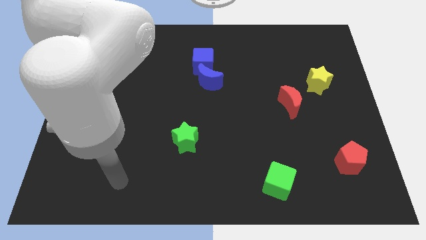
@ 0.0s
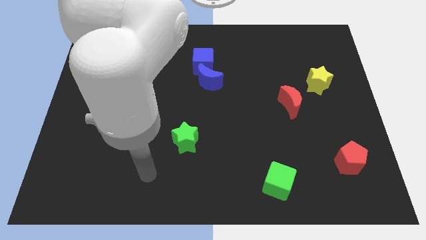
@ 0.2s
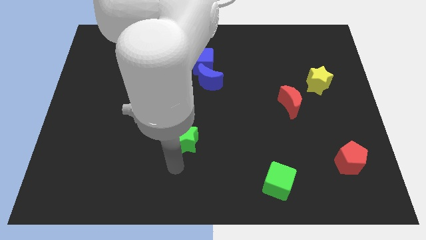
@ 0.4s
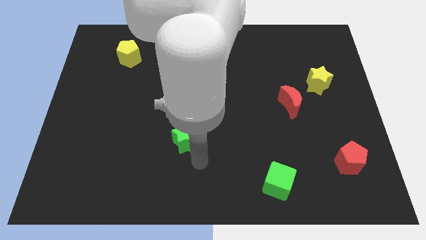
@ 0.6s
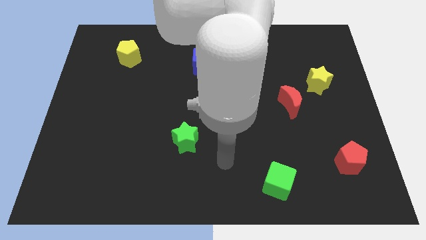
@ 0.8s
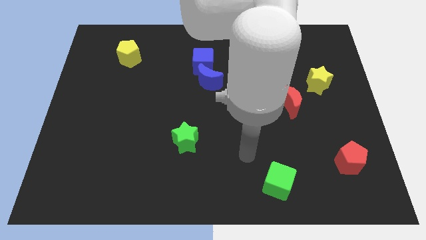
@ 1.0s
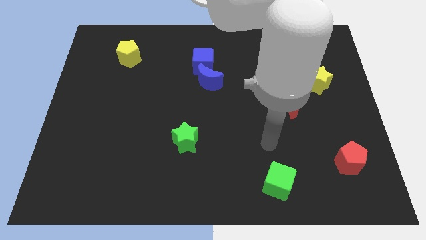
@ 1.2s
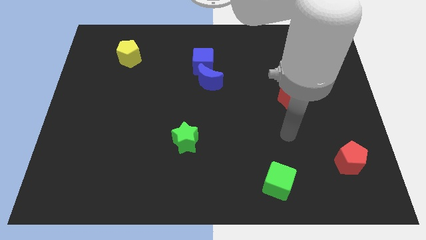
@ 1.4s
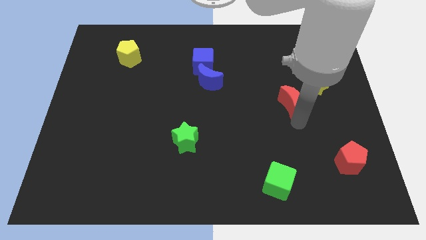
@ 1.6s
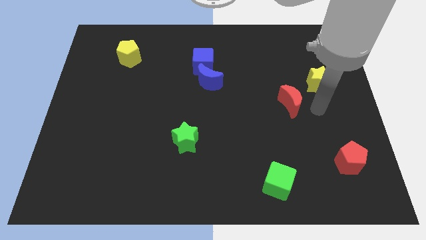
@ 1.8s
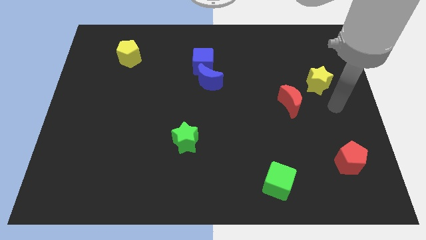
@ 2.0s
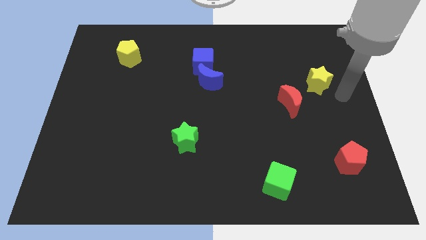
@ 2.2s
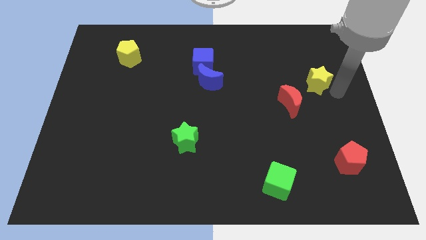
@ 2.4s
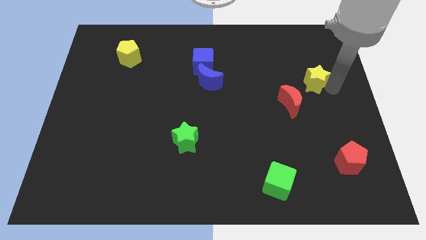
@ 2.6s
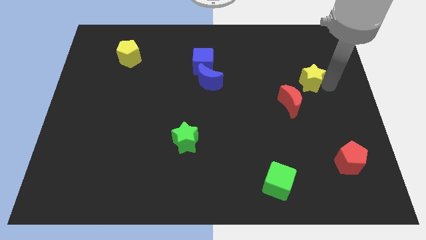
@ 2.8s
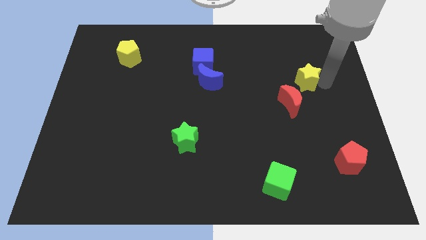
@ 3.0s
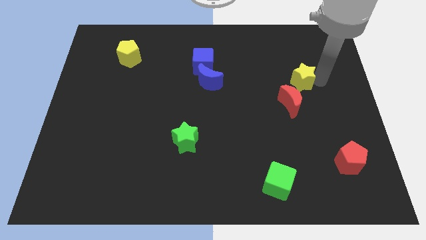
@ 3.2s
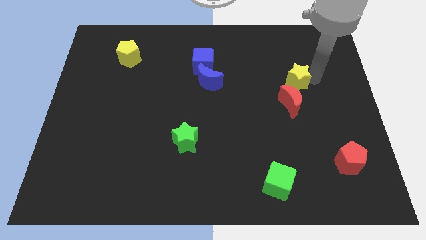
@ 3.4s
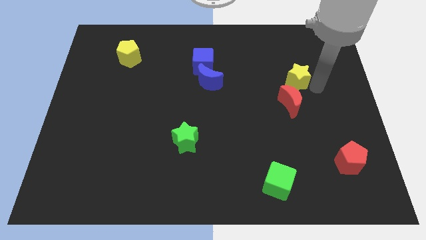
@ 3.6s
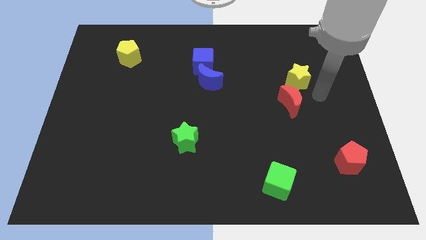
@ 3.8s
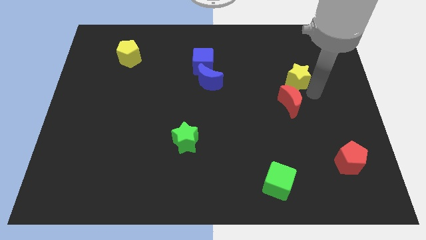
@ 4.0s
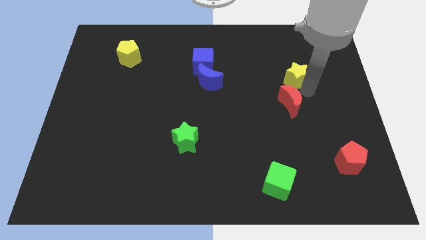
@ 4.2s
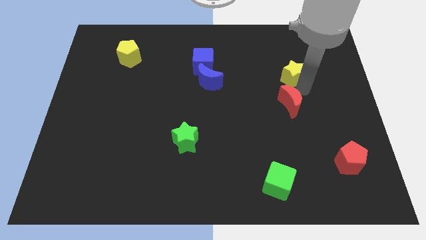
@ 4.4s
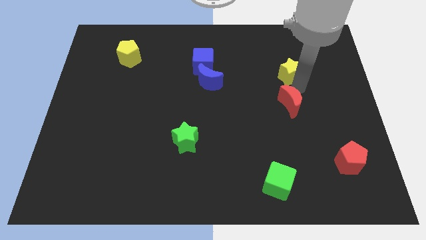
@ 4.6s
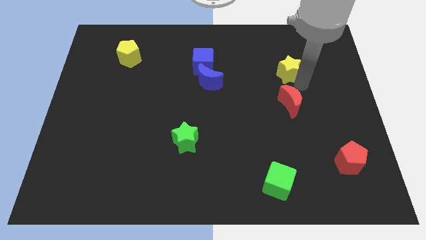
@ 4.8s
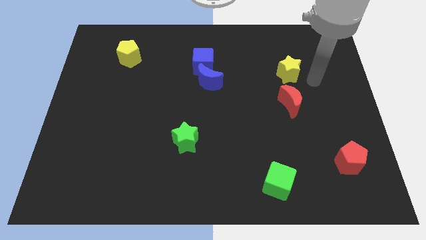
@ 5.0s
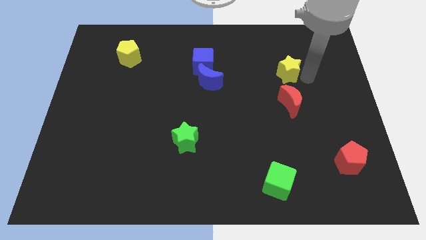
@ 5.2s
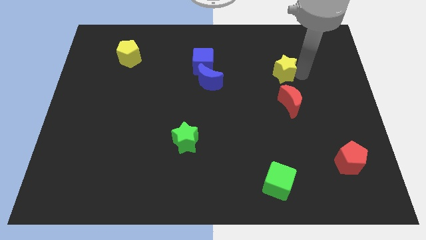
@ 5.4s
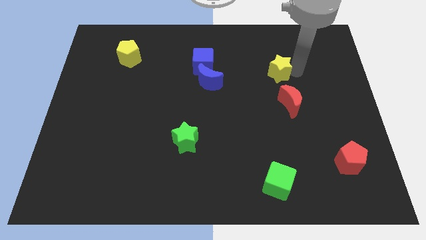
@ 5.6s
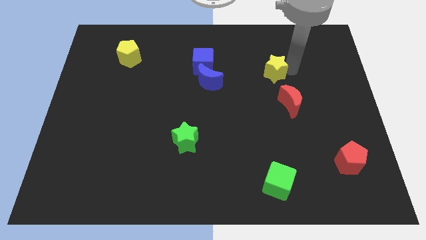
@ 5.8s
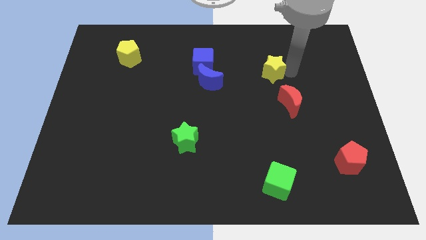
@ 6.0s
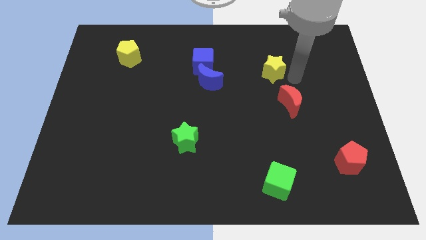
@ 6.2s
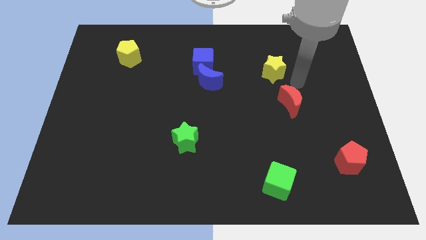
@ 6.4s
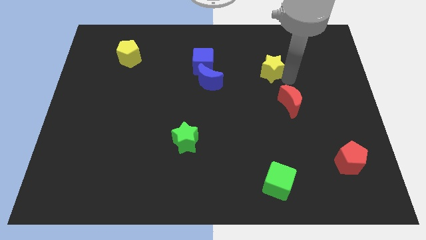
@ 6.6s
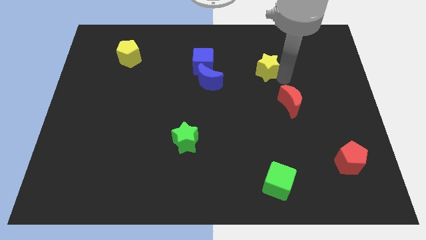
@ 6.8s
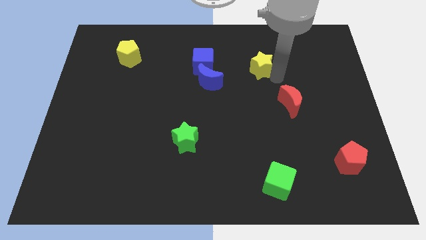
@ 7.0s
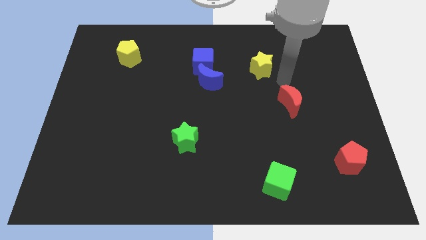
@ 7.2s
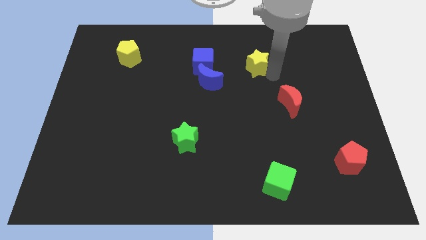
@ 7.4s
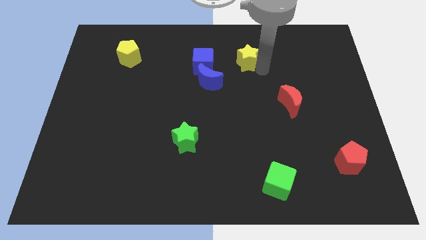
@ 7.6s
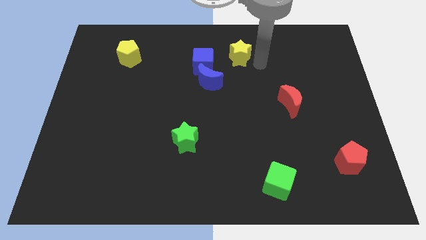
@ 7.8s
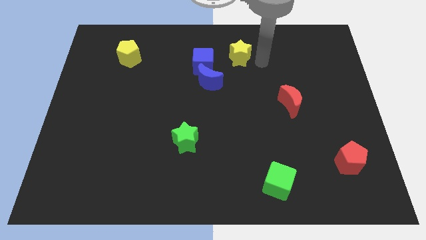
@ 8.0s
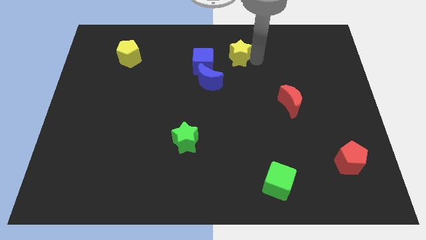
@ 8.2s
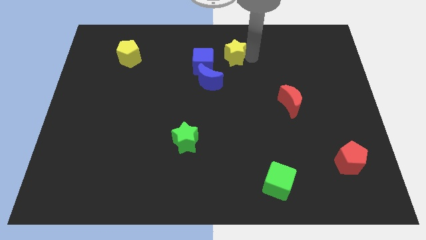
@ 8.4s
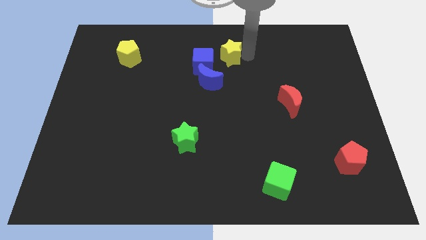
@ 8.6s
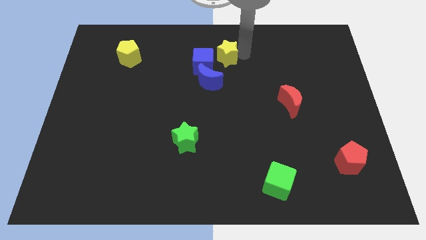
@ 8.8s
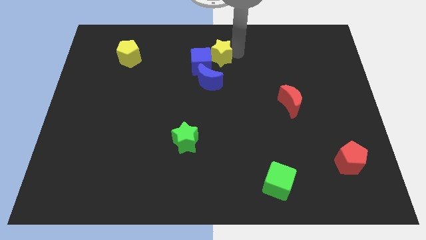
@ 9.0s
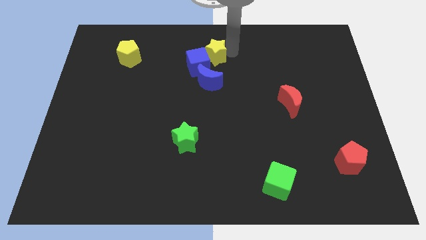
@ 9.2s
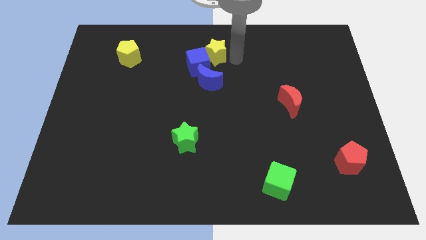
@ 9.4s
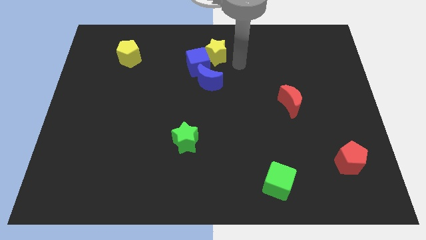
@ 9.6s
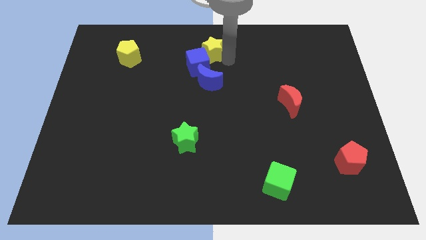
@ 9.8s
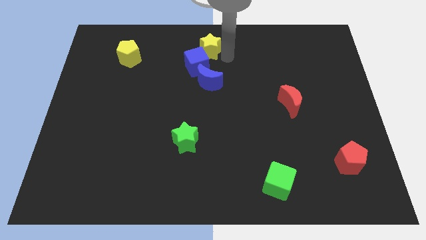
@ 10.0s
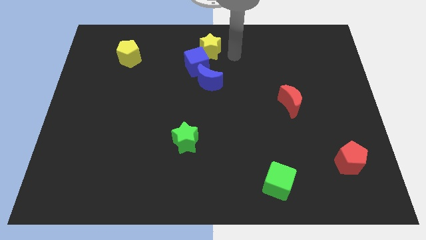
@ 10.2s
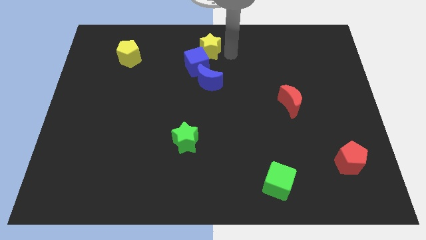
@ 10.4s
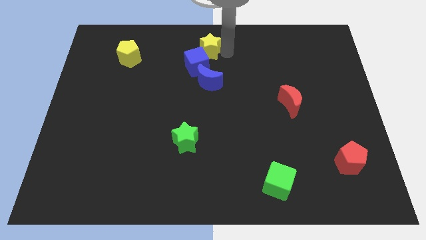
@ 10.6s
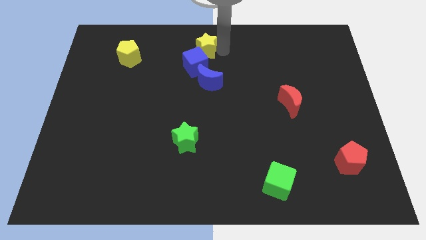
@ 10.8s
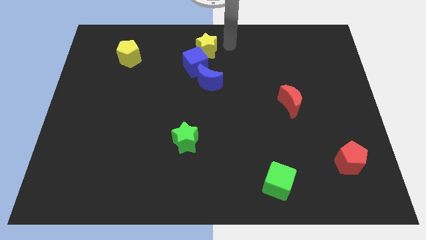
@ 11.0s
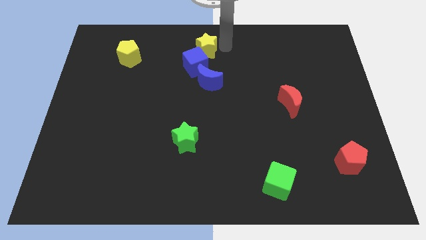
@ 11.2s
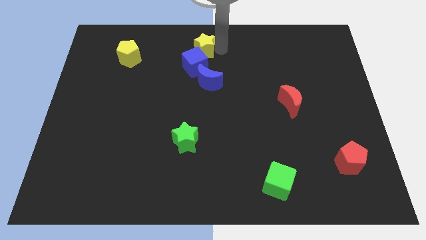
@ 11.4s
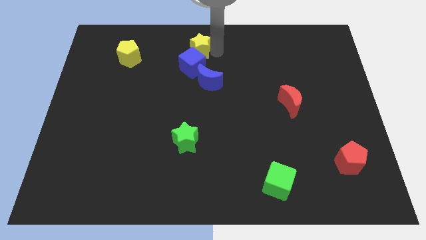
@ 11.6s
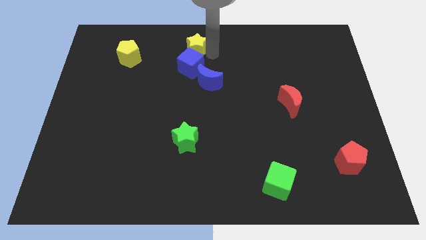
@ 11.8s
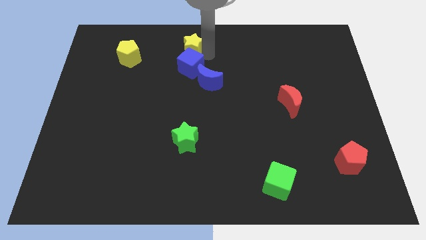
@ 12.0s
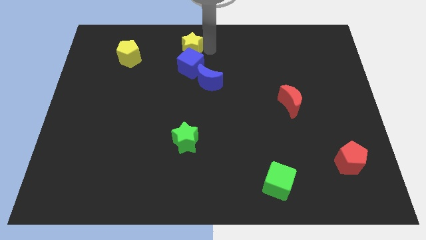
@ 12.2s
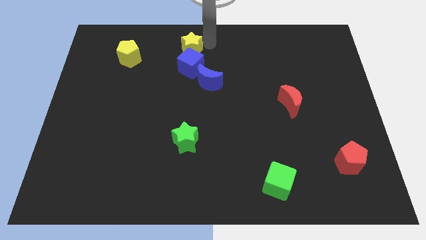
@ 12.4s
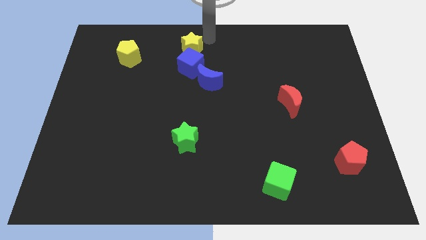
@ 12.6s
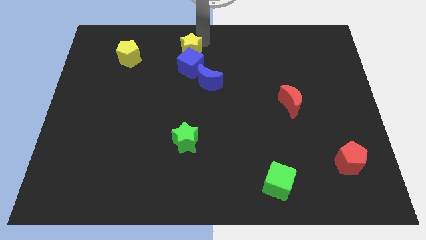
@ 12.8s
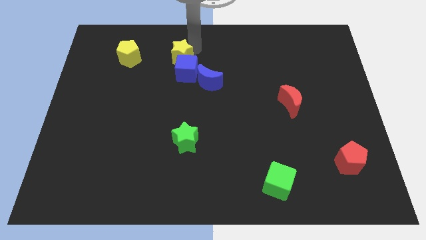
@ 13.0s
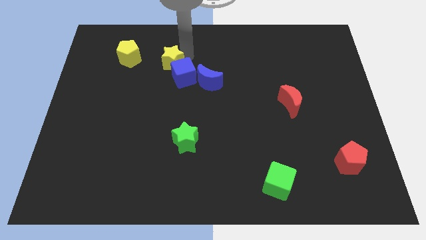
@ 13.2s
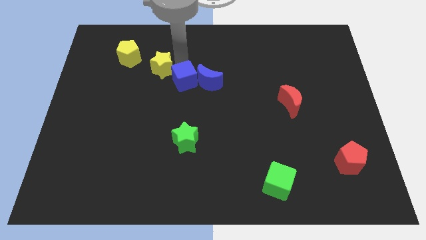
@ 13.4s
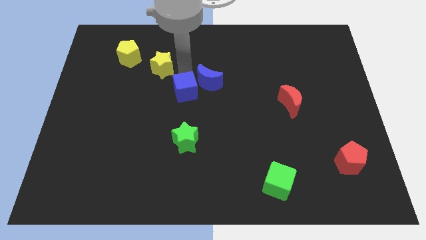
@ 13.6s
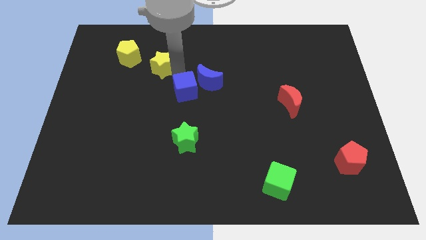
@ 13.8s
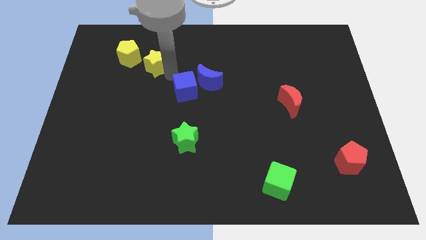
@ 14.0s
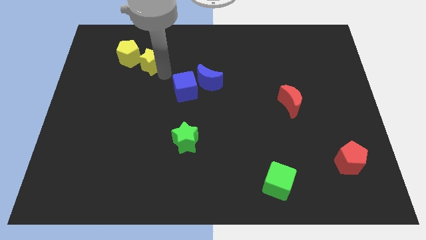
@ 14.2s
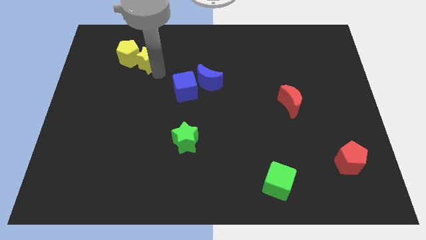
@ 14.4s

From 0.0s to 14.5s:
slide the yellow star next to the yellow pentagon

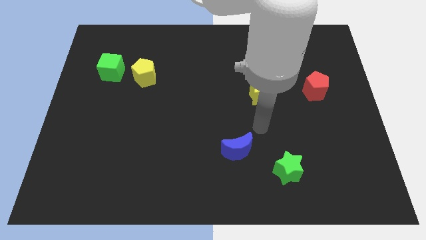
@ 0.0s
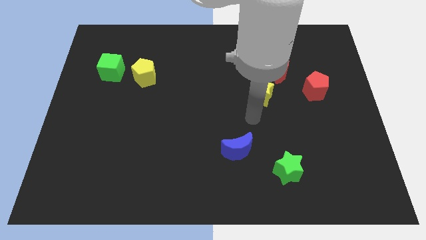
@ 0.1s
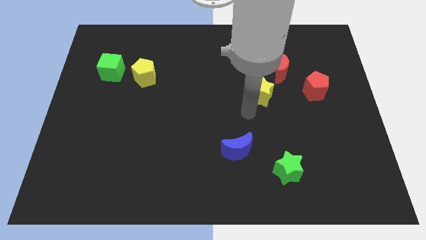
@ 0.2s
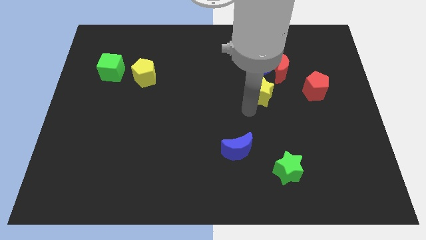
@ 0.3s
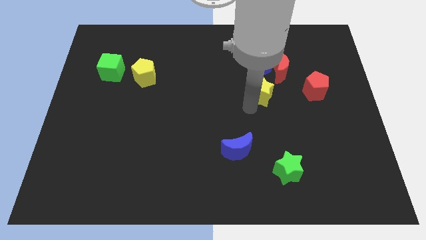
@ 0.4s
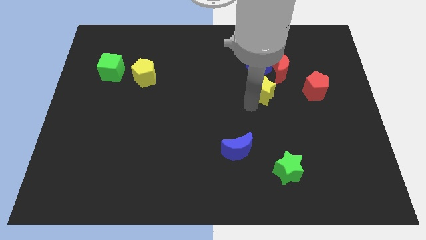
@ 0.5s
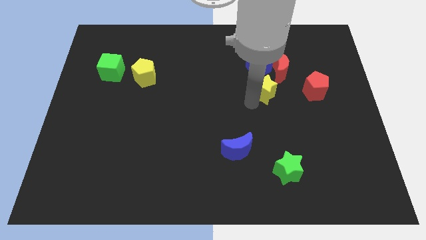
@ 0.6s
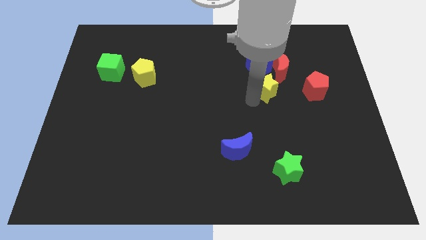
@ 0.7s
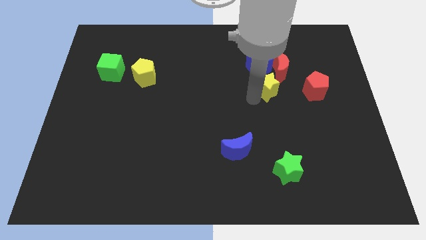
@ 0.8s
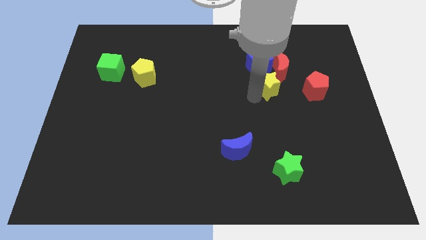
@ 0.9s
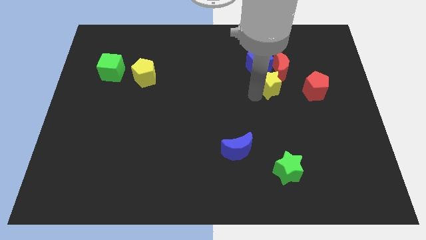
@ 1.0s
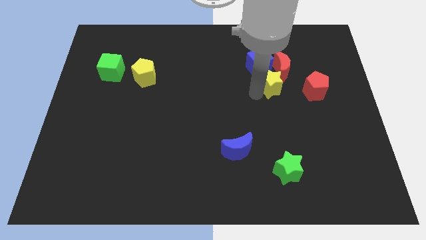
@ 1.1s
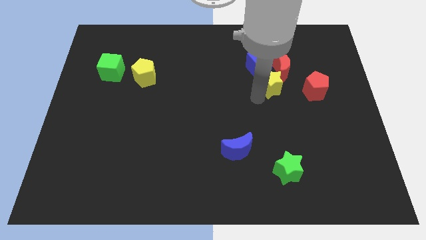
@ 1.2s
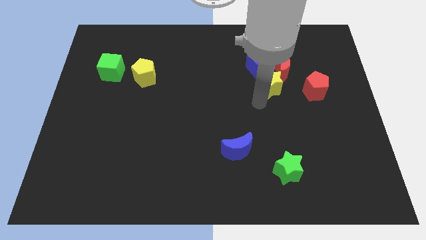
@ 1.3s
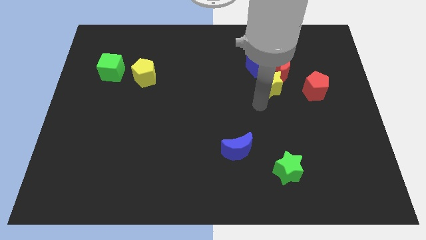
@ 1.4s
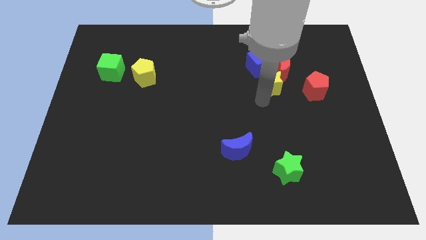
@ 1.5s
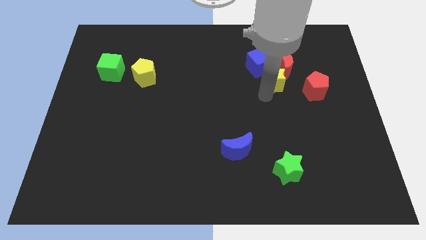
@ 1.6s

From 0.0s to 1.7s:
slide the yellow star to the red moon
